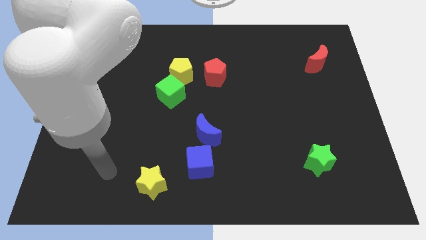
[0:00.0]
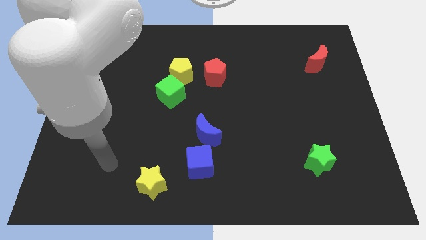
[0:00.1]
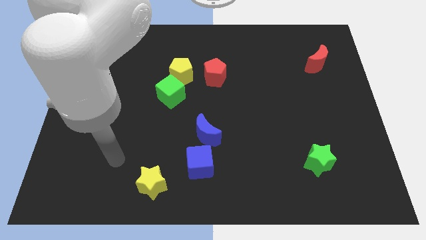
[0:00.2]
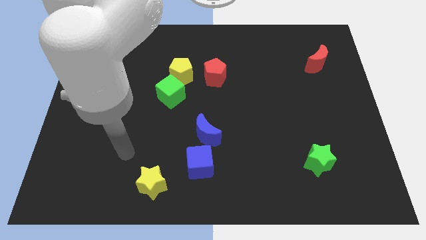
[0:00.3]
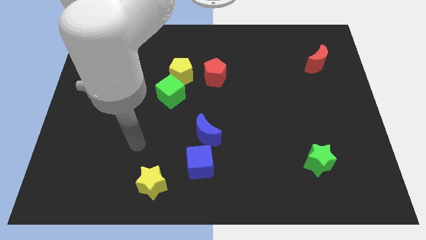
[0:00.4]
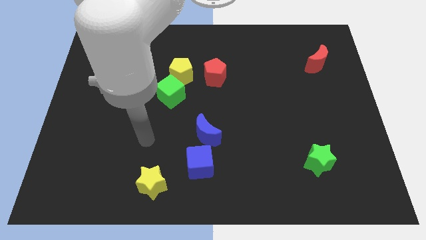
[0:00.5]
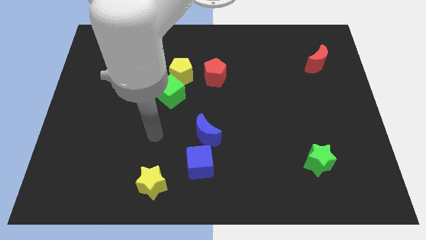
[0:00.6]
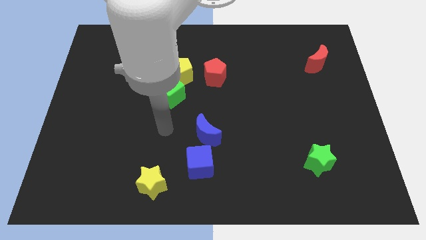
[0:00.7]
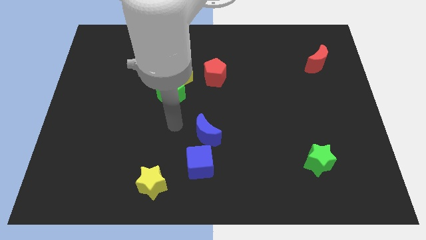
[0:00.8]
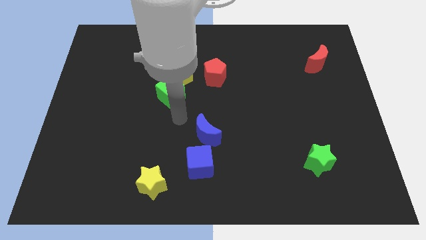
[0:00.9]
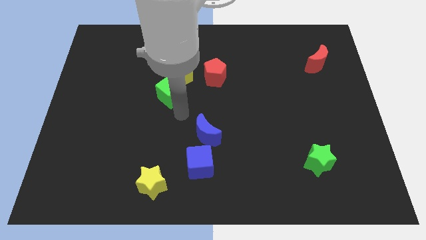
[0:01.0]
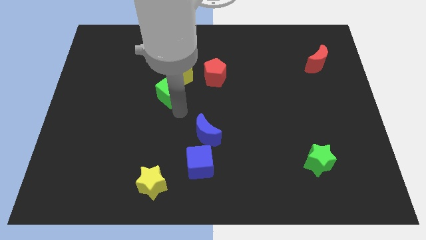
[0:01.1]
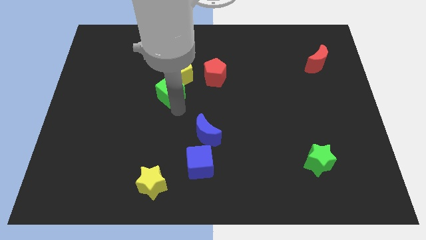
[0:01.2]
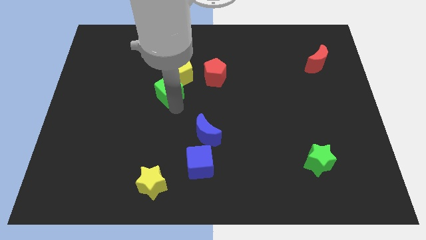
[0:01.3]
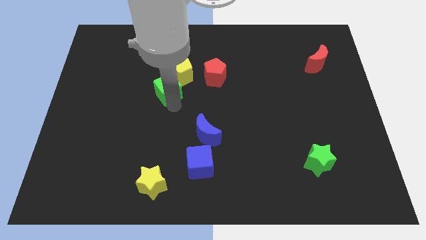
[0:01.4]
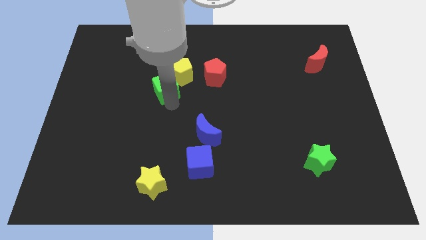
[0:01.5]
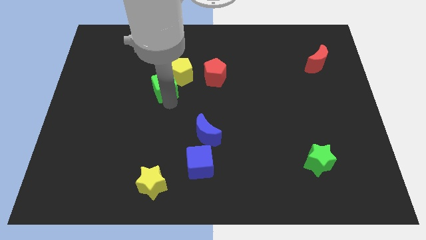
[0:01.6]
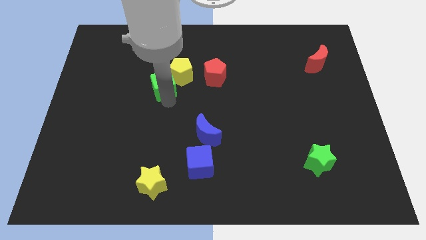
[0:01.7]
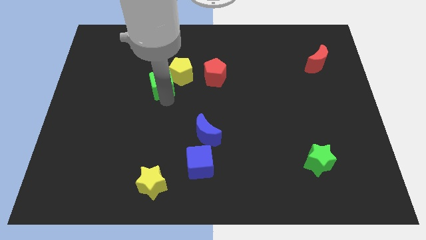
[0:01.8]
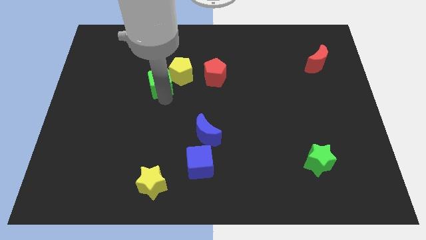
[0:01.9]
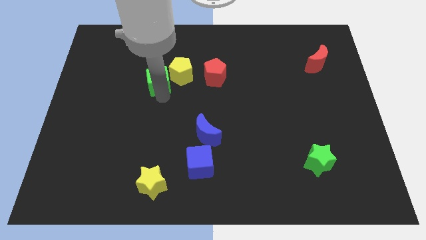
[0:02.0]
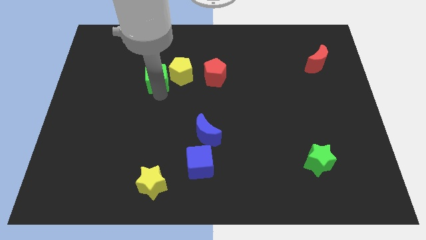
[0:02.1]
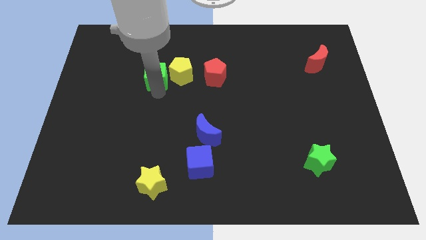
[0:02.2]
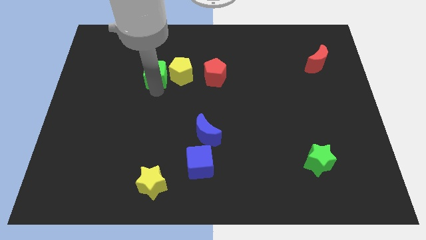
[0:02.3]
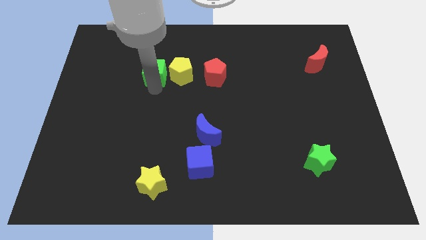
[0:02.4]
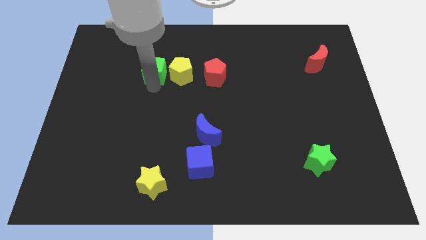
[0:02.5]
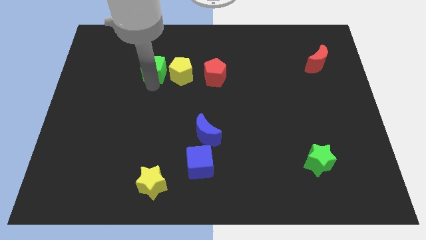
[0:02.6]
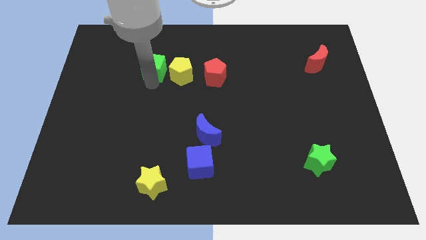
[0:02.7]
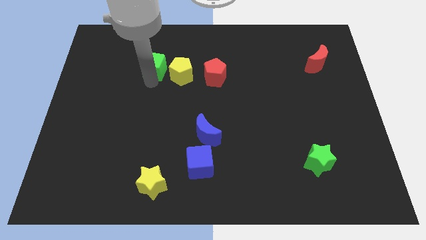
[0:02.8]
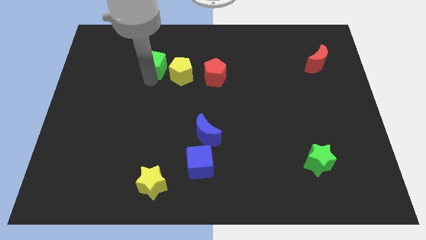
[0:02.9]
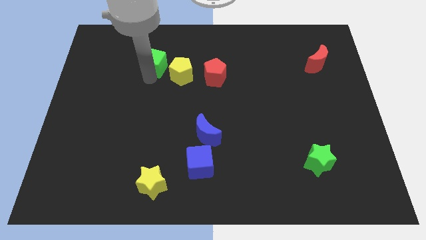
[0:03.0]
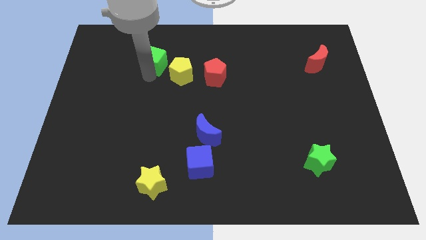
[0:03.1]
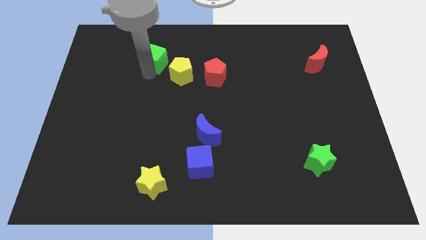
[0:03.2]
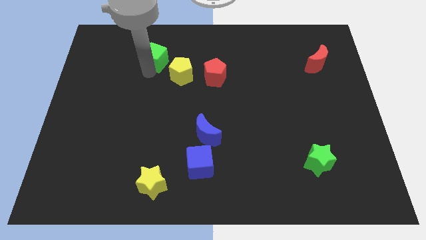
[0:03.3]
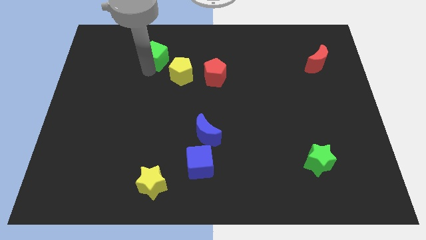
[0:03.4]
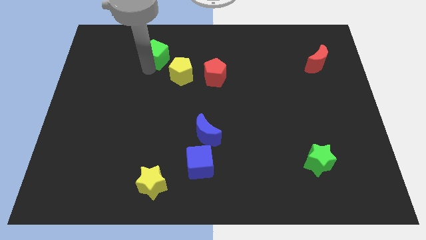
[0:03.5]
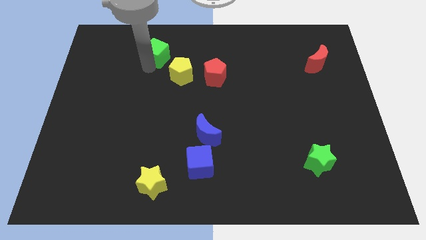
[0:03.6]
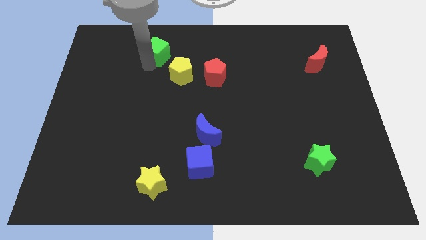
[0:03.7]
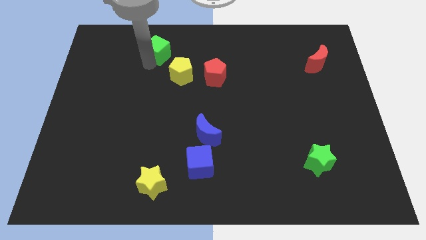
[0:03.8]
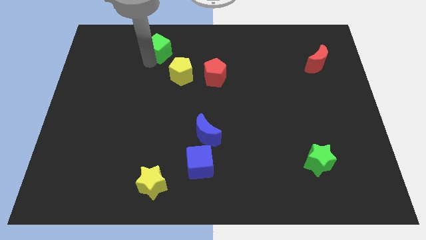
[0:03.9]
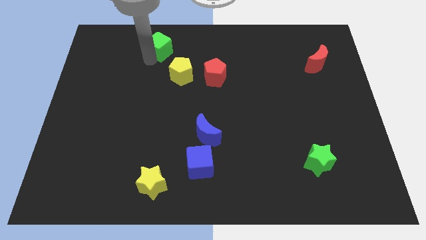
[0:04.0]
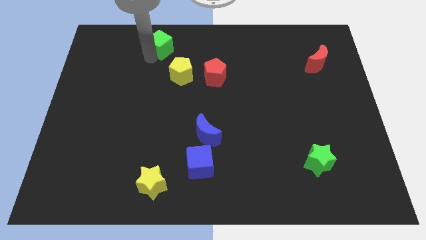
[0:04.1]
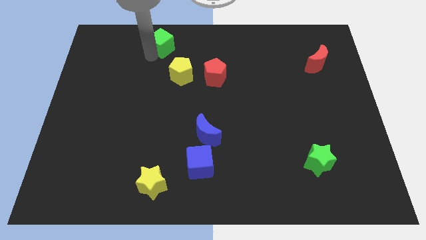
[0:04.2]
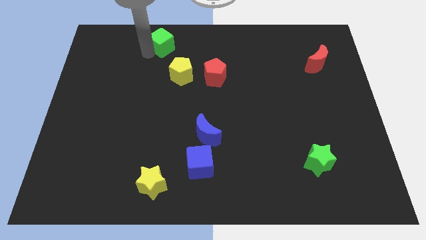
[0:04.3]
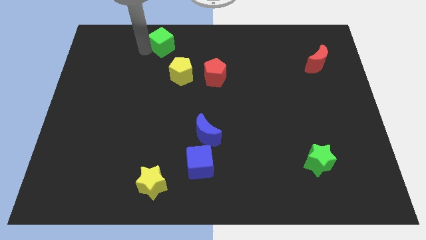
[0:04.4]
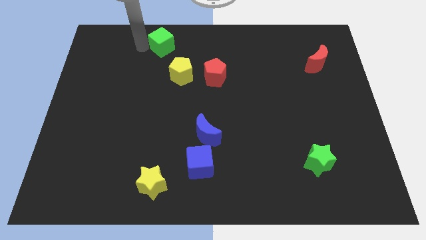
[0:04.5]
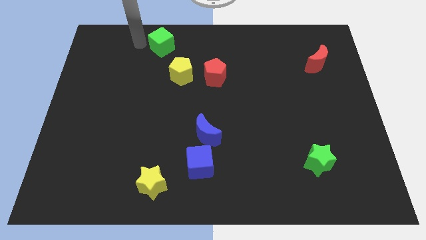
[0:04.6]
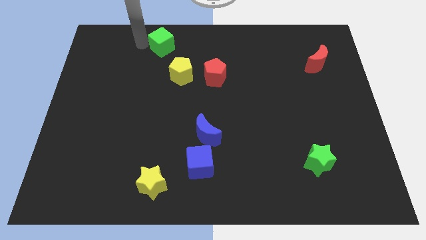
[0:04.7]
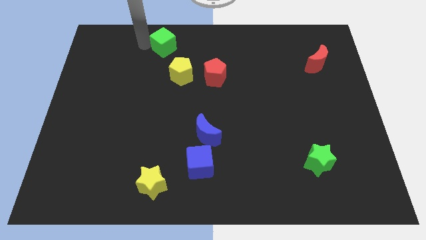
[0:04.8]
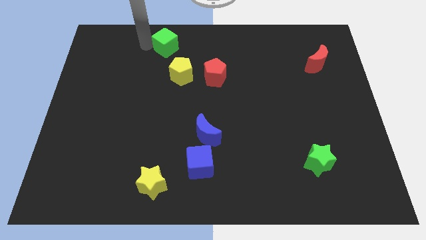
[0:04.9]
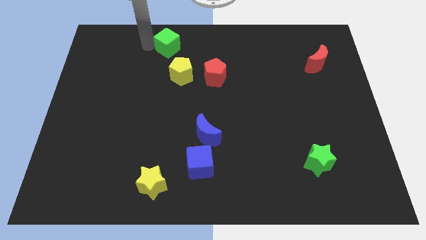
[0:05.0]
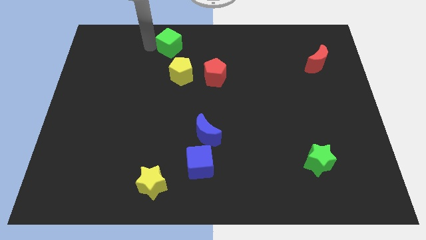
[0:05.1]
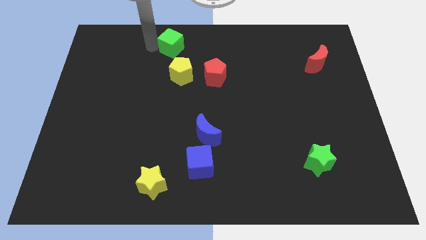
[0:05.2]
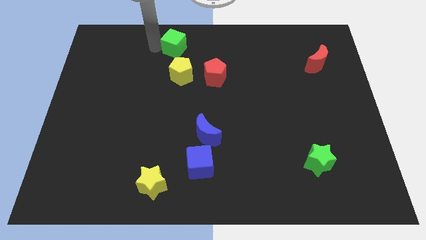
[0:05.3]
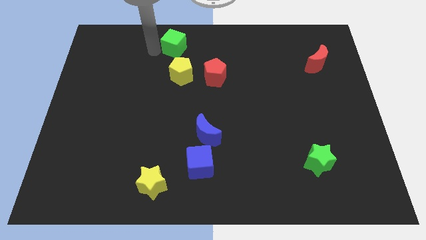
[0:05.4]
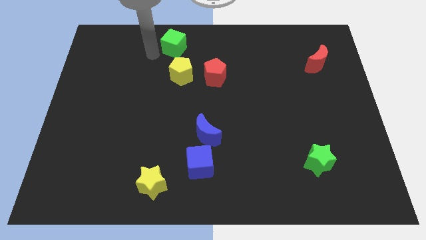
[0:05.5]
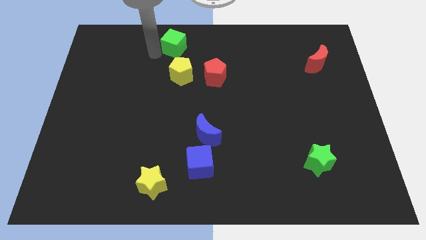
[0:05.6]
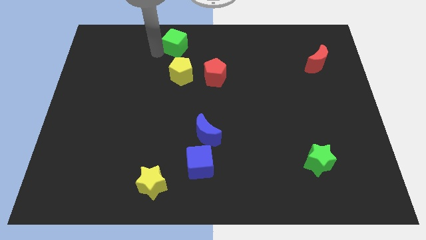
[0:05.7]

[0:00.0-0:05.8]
move the green cube to the top side

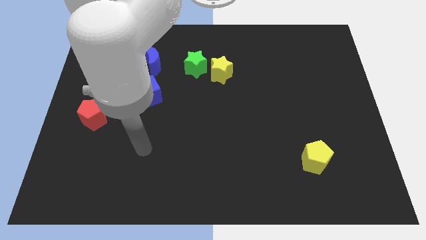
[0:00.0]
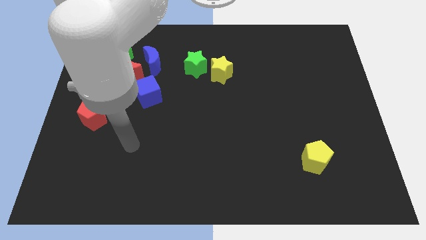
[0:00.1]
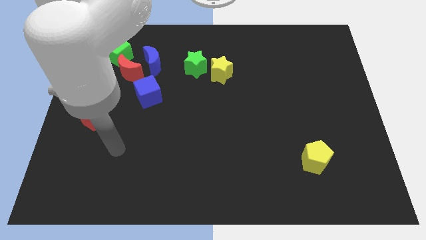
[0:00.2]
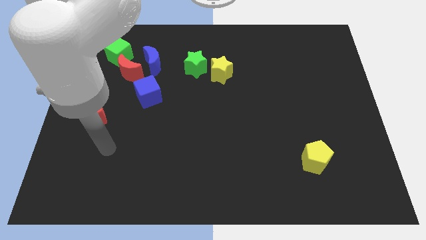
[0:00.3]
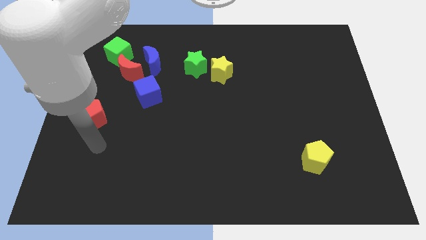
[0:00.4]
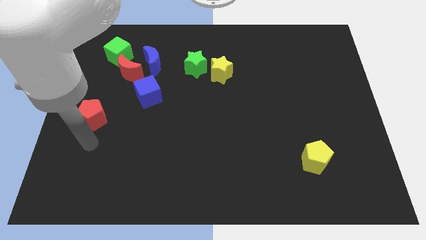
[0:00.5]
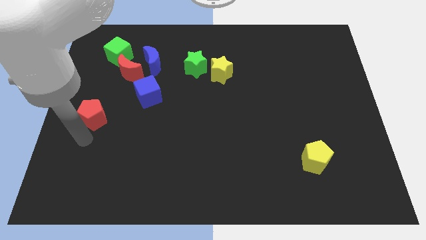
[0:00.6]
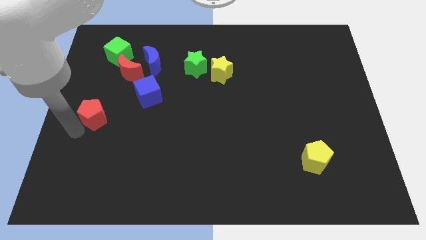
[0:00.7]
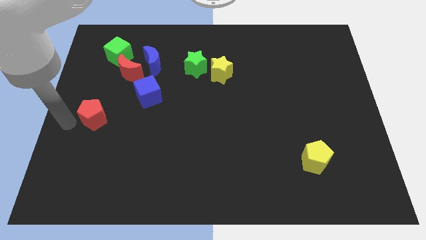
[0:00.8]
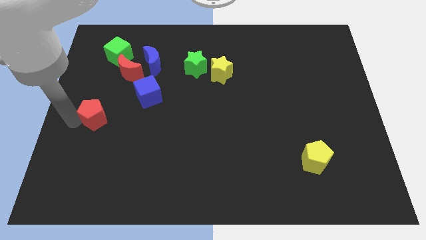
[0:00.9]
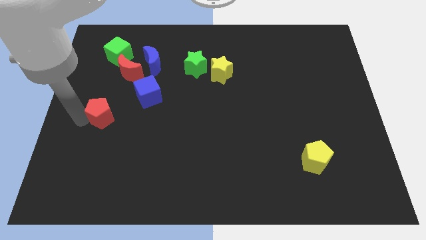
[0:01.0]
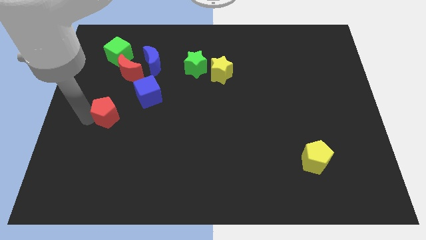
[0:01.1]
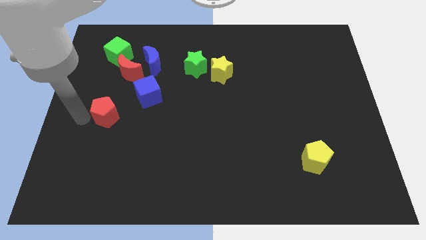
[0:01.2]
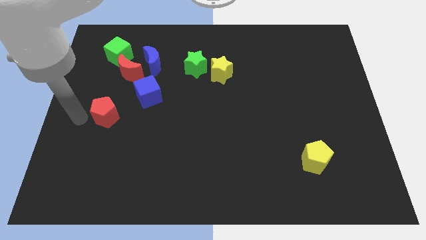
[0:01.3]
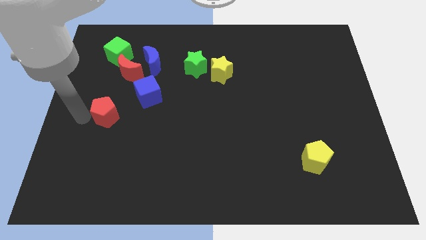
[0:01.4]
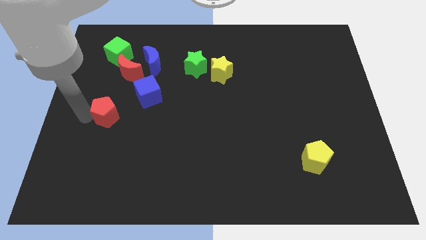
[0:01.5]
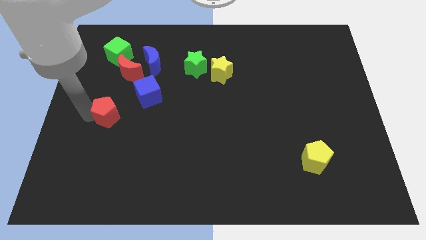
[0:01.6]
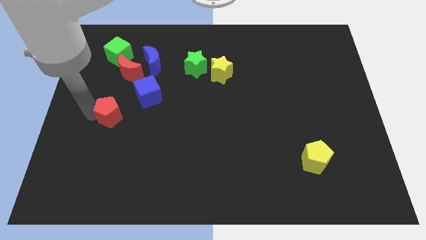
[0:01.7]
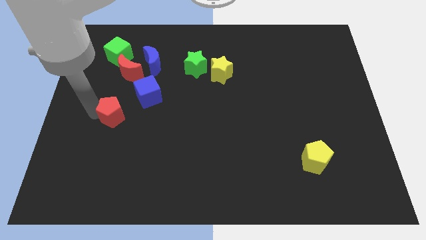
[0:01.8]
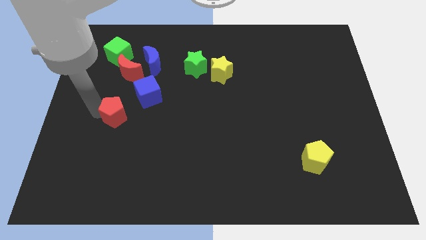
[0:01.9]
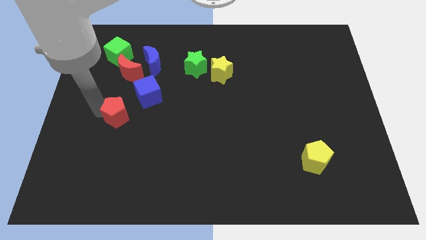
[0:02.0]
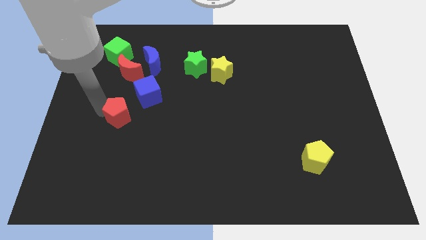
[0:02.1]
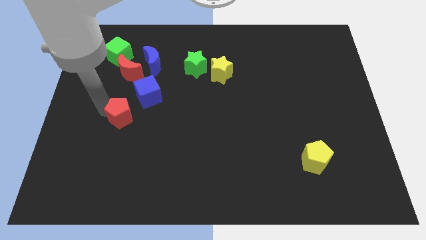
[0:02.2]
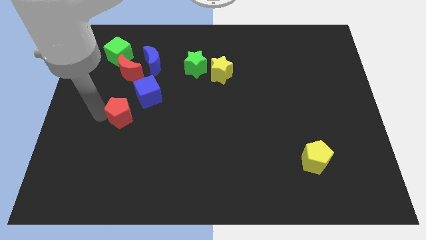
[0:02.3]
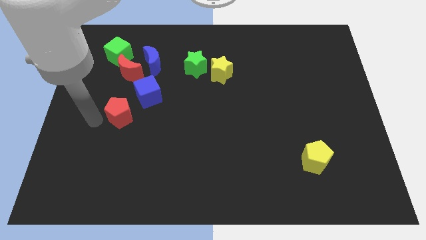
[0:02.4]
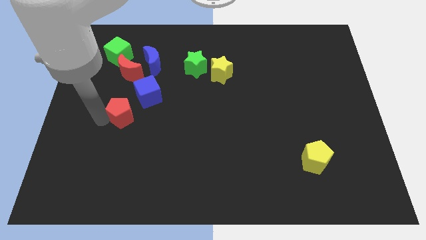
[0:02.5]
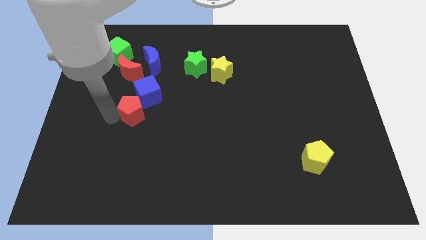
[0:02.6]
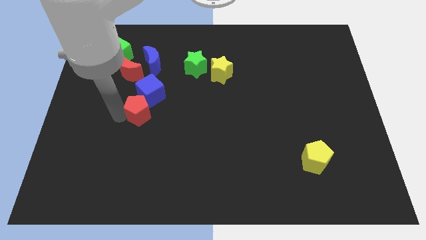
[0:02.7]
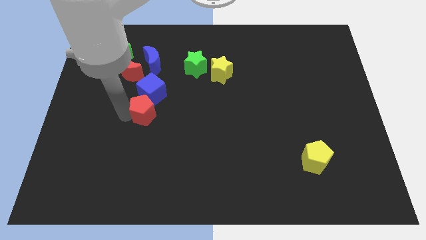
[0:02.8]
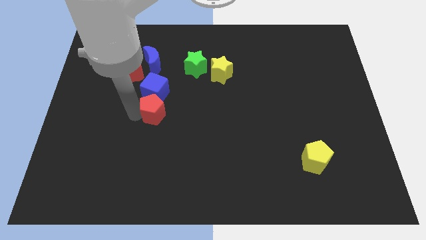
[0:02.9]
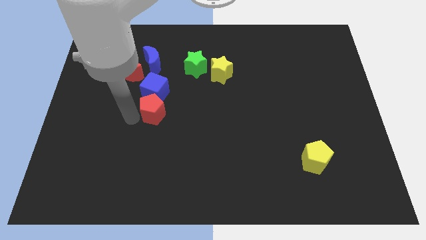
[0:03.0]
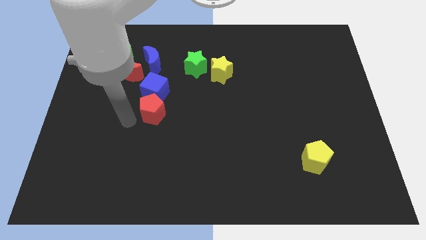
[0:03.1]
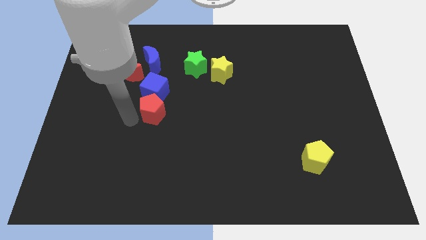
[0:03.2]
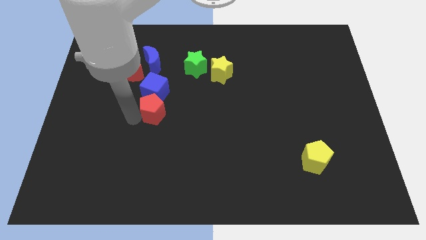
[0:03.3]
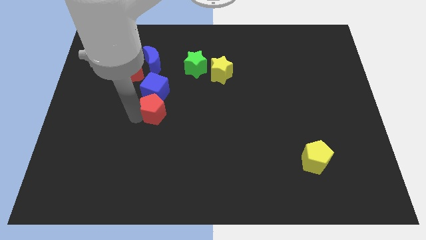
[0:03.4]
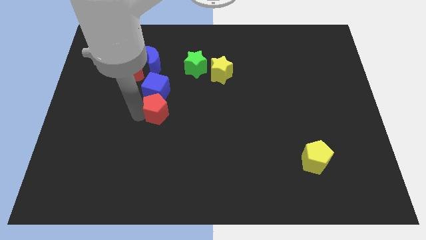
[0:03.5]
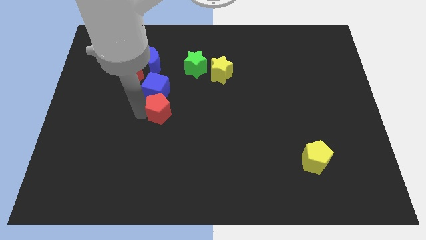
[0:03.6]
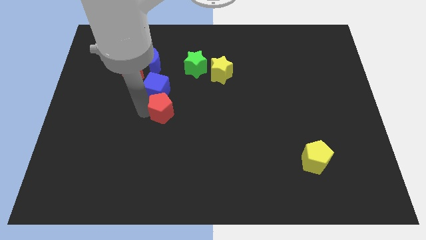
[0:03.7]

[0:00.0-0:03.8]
push the red pentagon to the middle of the board
